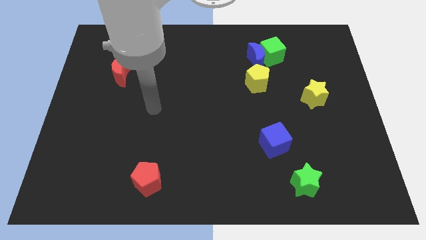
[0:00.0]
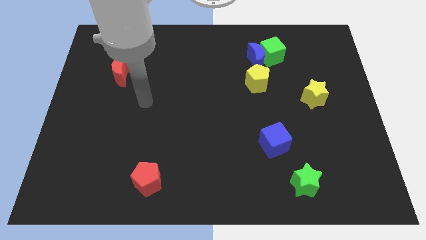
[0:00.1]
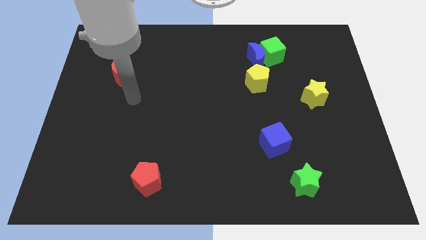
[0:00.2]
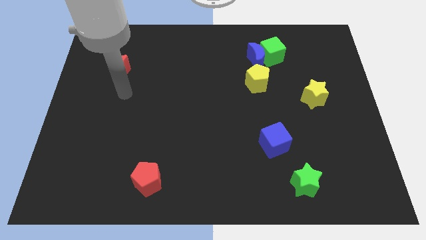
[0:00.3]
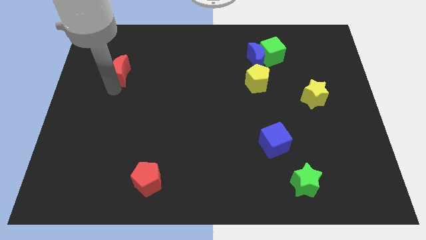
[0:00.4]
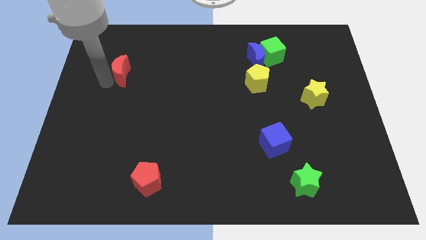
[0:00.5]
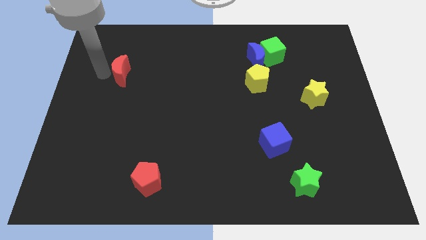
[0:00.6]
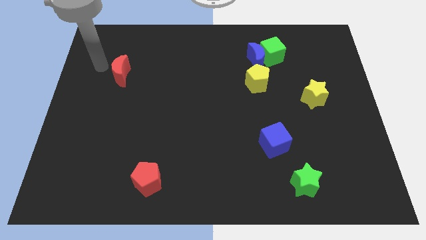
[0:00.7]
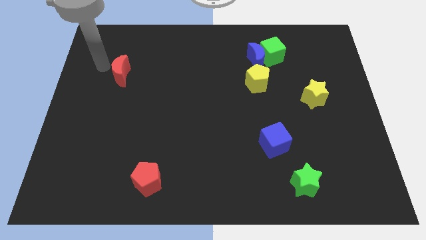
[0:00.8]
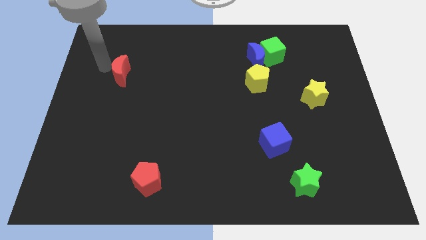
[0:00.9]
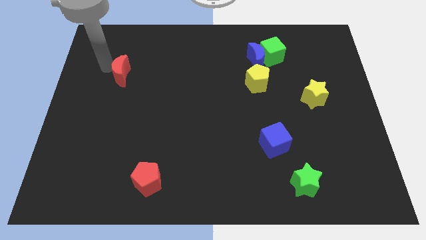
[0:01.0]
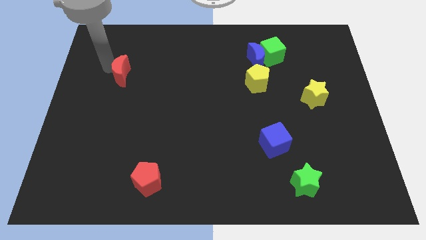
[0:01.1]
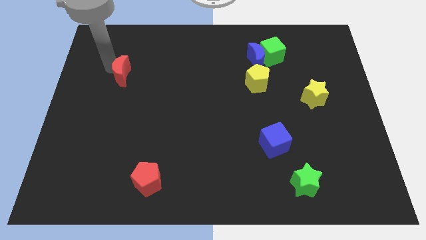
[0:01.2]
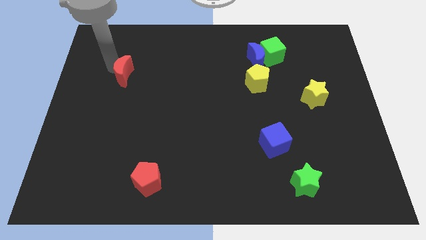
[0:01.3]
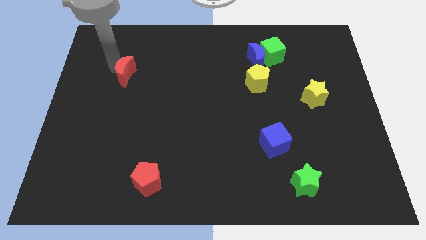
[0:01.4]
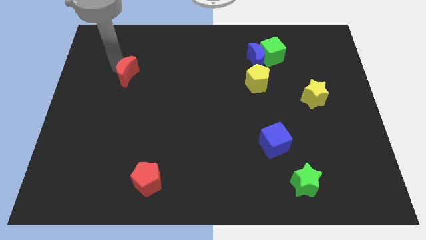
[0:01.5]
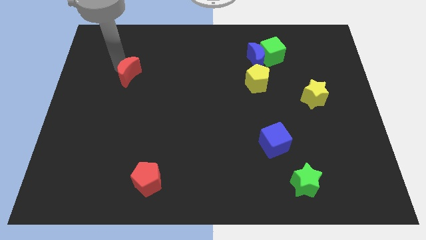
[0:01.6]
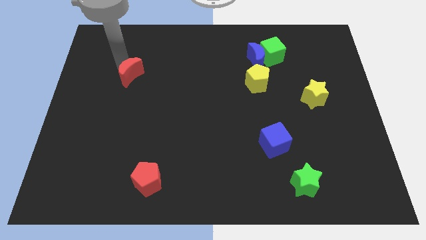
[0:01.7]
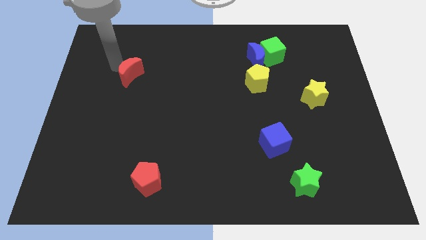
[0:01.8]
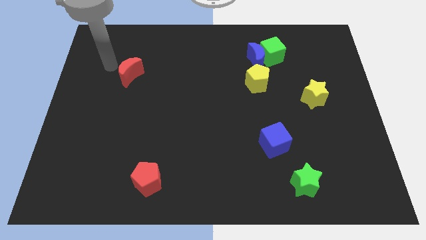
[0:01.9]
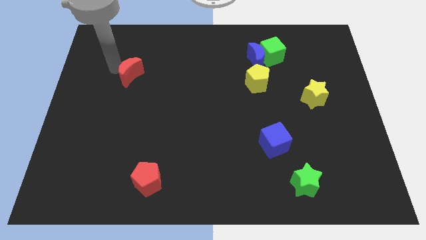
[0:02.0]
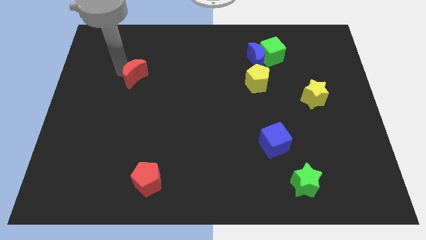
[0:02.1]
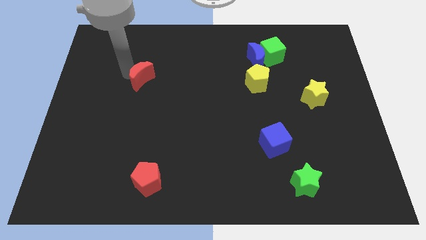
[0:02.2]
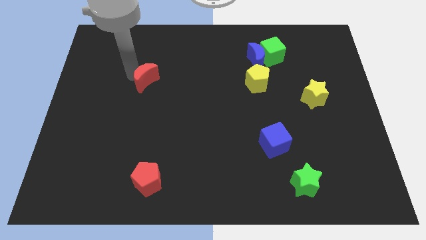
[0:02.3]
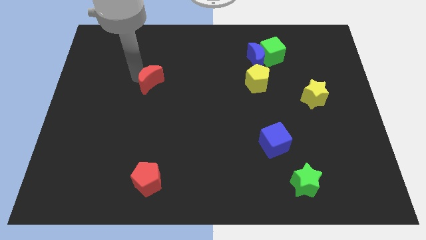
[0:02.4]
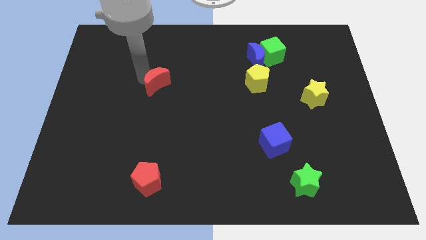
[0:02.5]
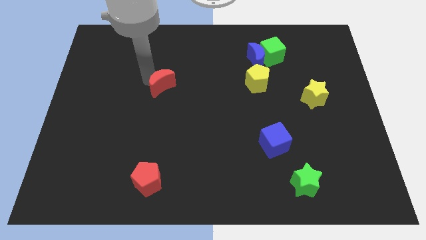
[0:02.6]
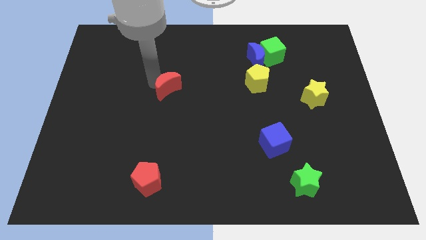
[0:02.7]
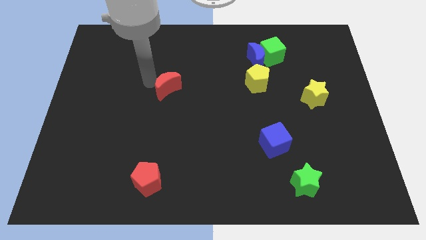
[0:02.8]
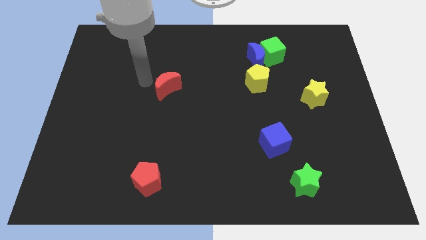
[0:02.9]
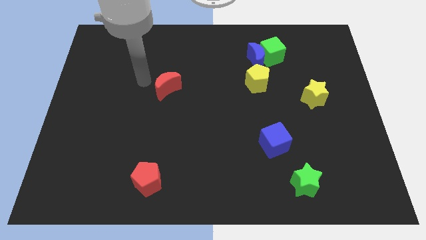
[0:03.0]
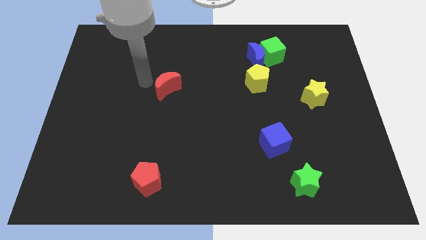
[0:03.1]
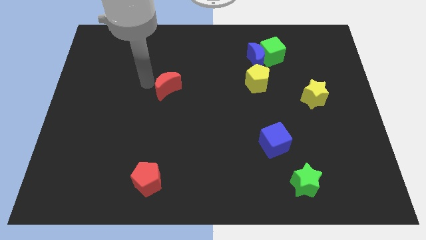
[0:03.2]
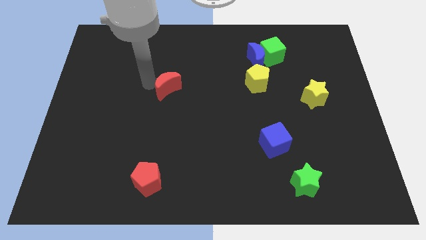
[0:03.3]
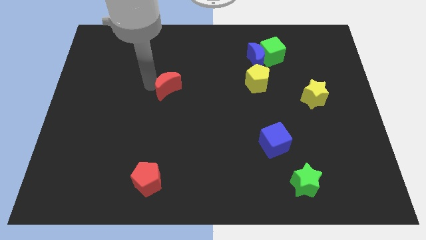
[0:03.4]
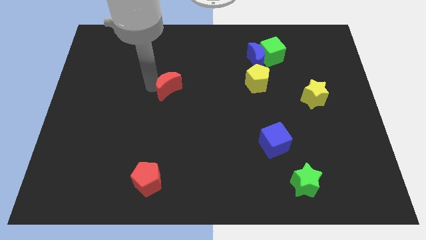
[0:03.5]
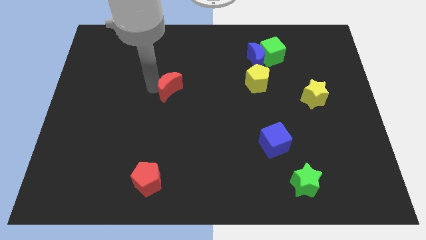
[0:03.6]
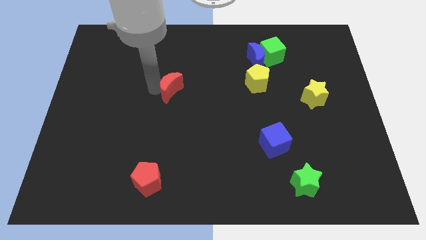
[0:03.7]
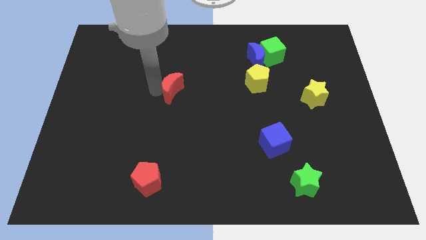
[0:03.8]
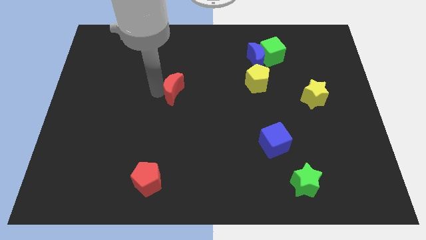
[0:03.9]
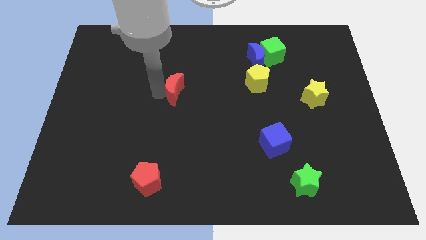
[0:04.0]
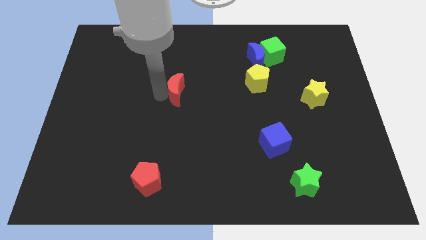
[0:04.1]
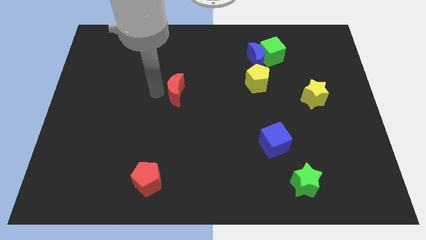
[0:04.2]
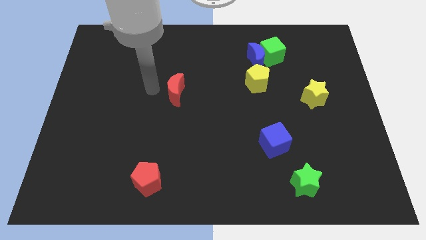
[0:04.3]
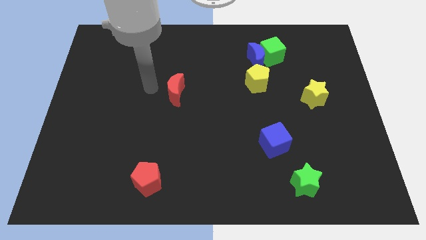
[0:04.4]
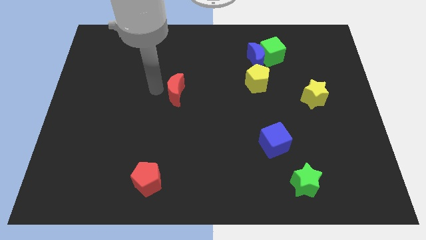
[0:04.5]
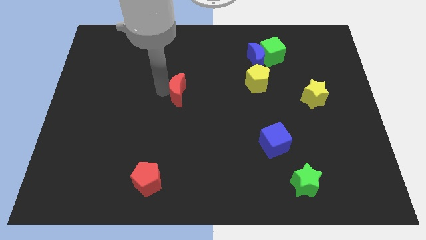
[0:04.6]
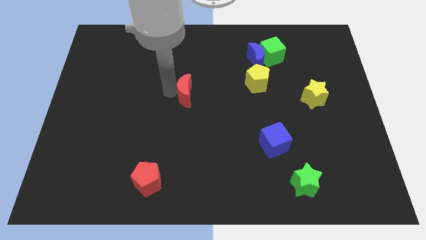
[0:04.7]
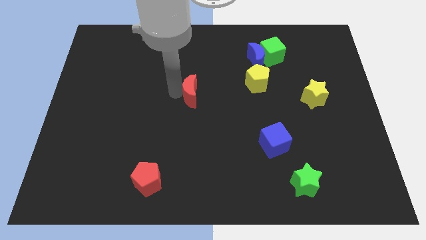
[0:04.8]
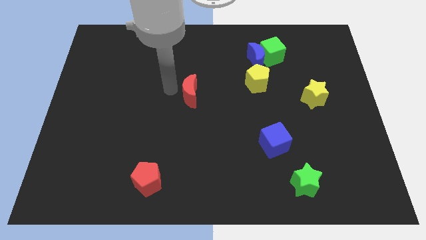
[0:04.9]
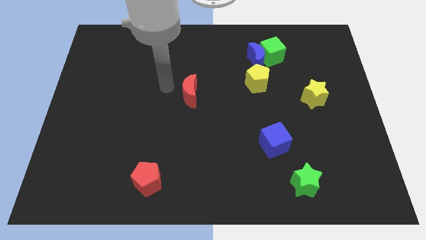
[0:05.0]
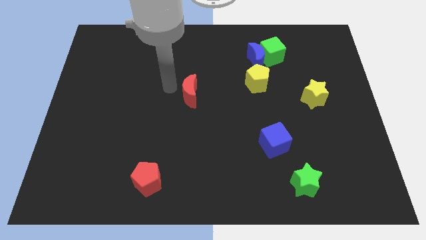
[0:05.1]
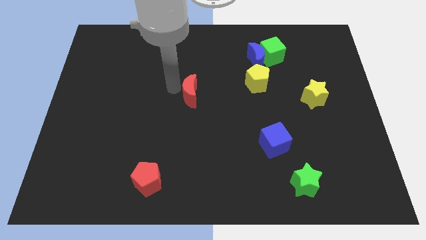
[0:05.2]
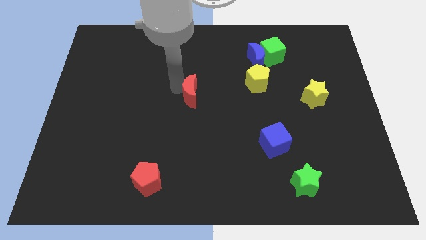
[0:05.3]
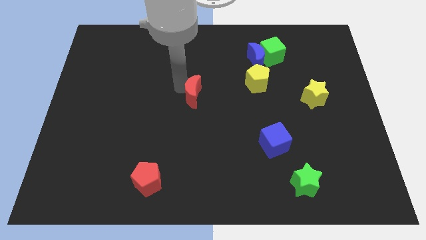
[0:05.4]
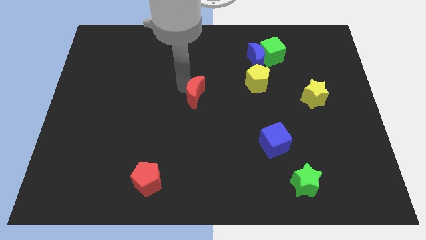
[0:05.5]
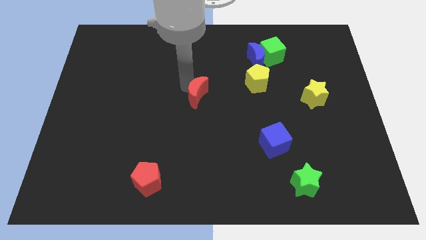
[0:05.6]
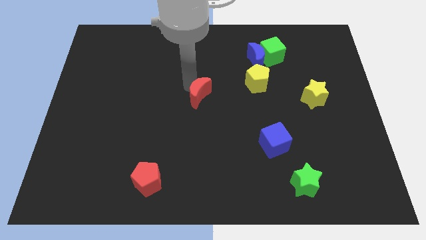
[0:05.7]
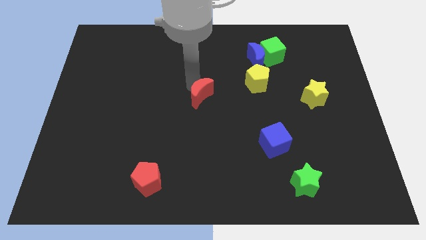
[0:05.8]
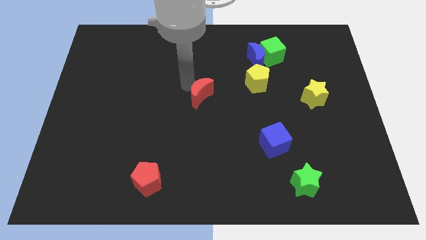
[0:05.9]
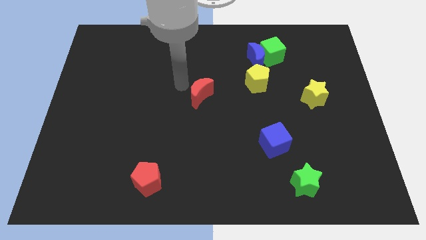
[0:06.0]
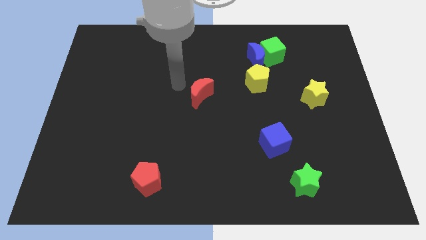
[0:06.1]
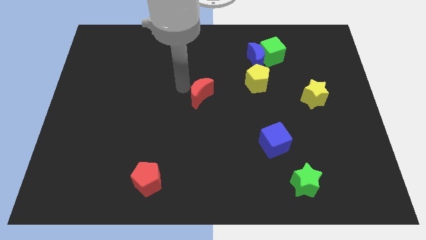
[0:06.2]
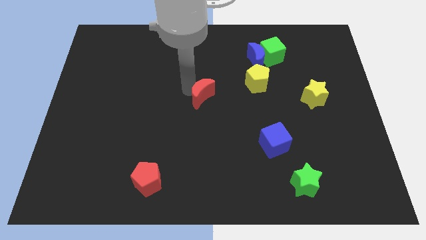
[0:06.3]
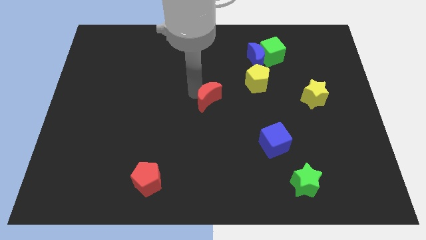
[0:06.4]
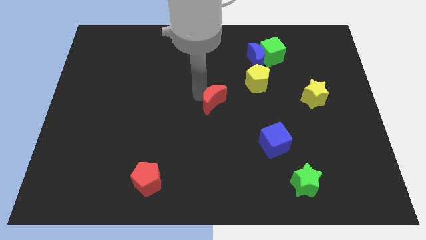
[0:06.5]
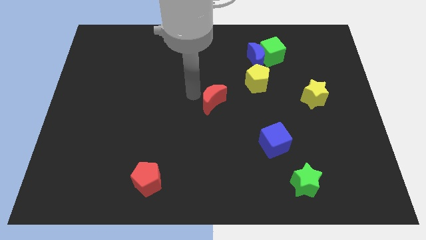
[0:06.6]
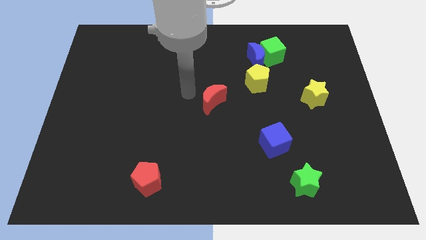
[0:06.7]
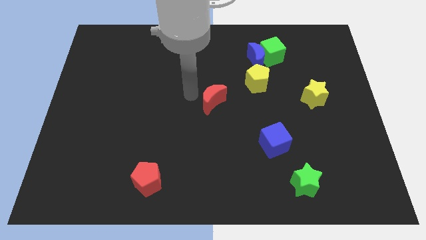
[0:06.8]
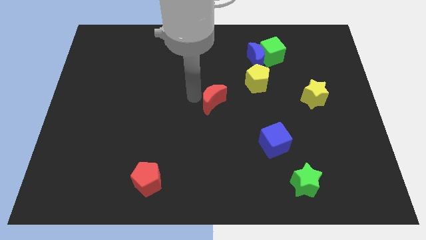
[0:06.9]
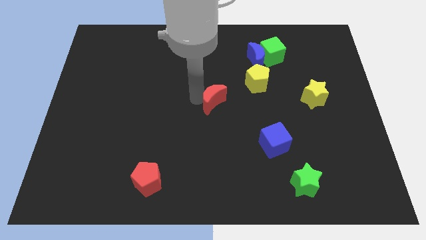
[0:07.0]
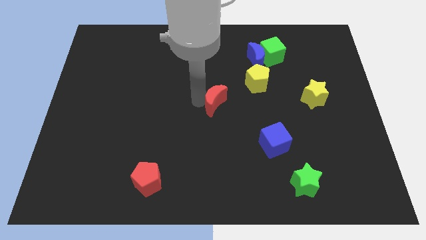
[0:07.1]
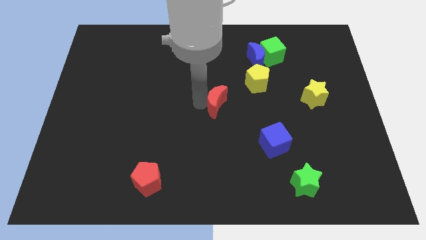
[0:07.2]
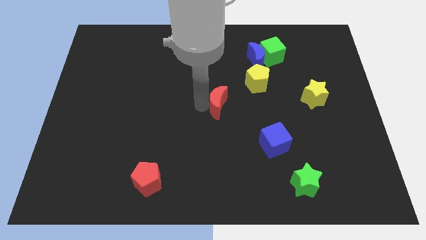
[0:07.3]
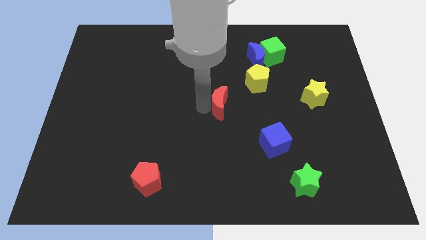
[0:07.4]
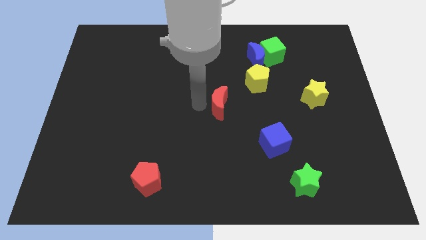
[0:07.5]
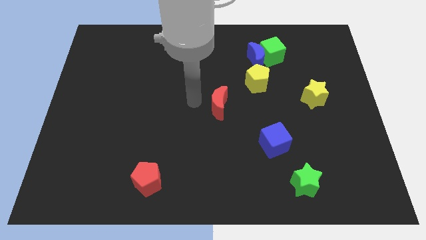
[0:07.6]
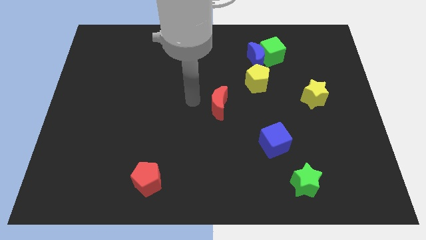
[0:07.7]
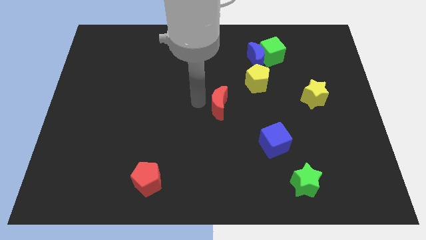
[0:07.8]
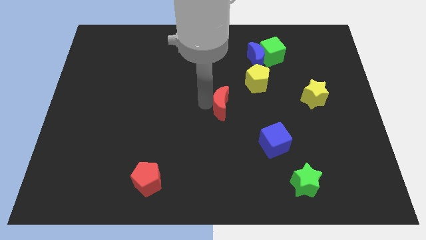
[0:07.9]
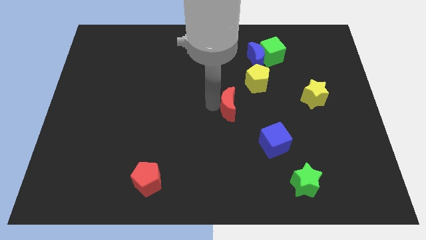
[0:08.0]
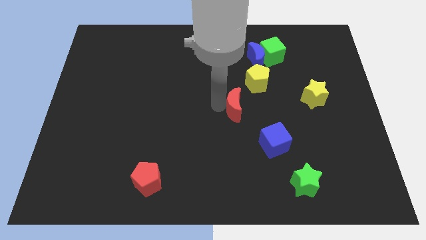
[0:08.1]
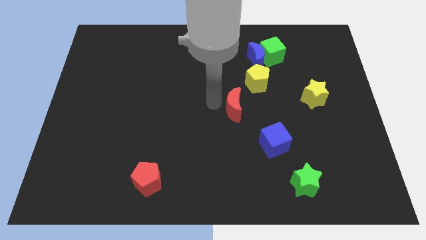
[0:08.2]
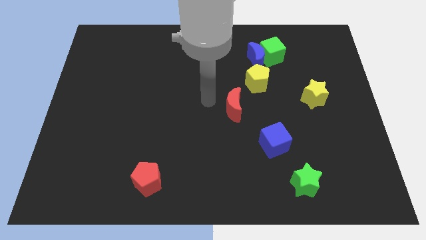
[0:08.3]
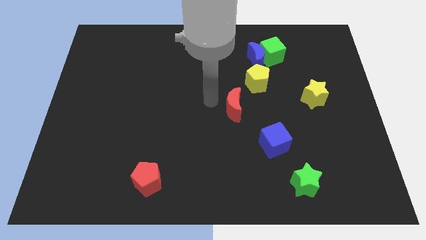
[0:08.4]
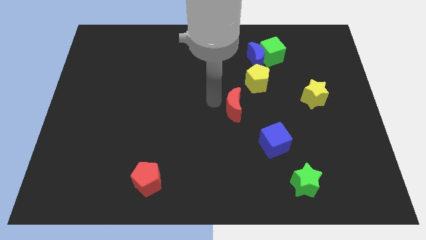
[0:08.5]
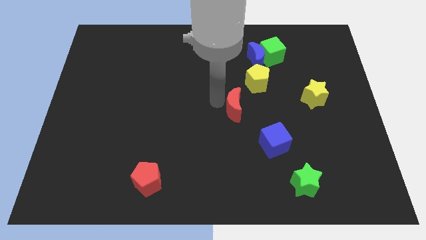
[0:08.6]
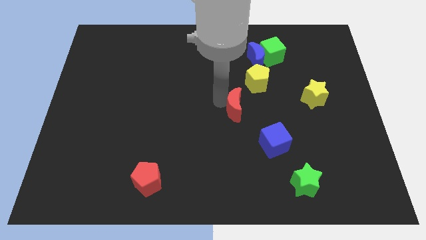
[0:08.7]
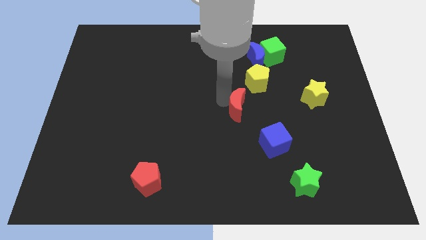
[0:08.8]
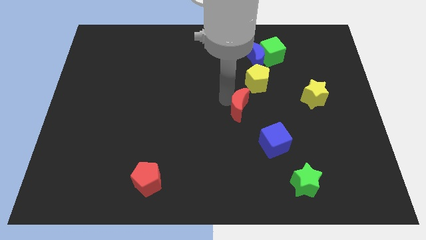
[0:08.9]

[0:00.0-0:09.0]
put the red moon to the bottom side of the yellow pentagon
